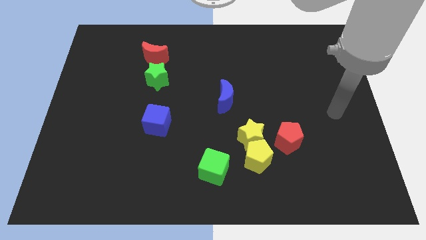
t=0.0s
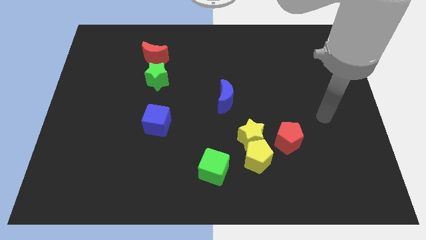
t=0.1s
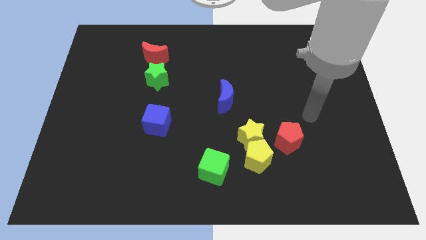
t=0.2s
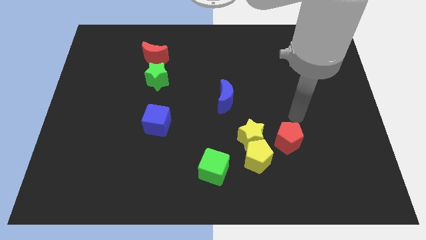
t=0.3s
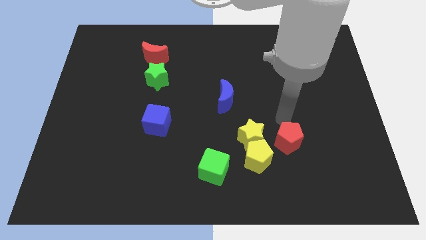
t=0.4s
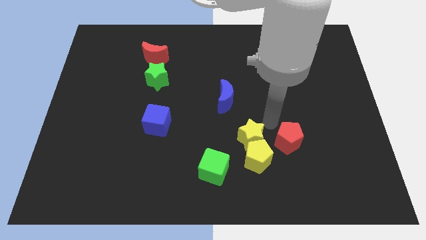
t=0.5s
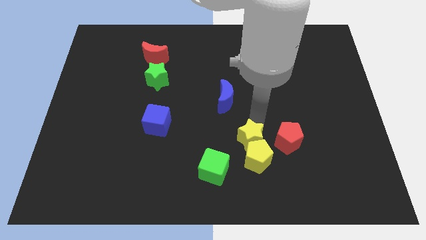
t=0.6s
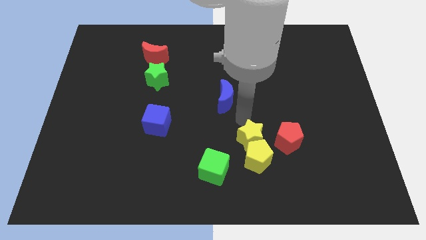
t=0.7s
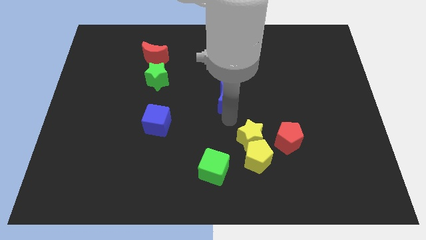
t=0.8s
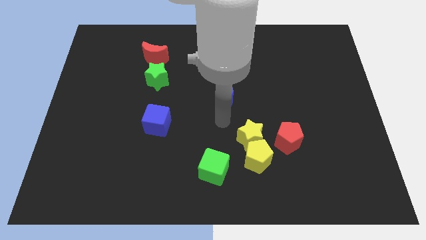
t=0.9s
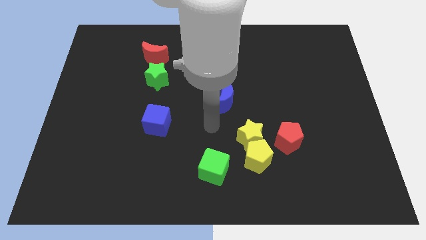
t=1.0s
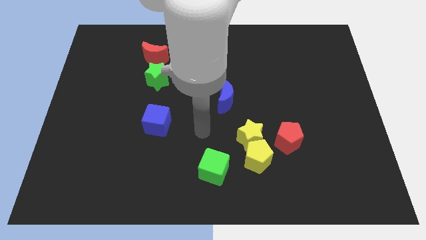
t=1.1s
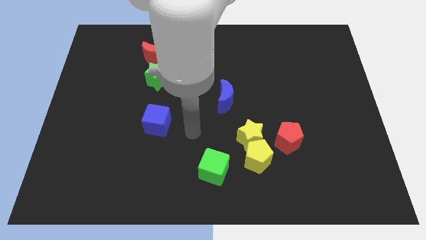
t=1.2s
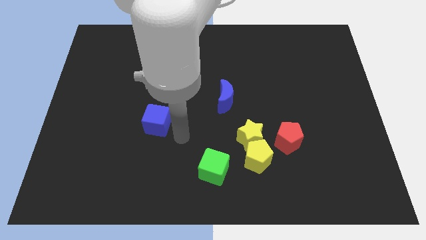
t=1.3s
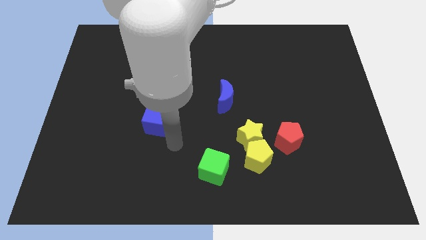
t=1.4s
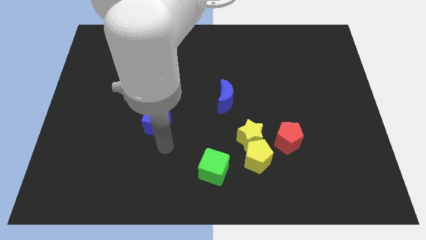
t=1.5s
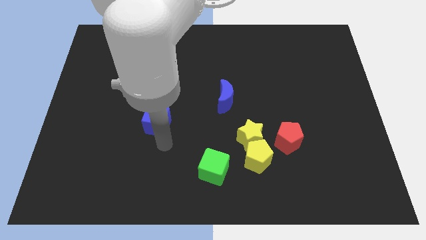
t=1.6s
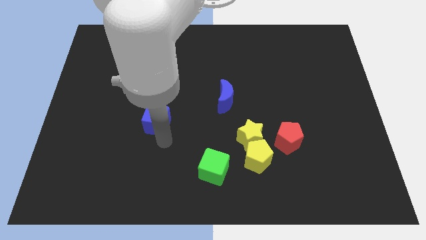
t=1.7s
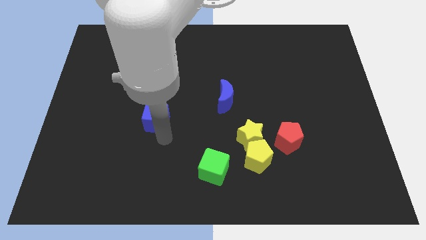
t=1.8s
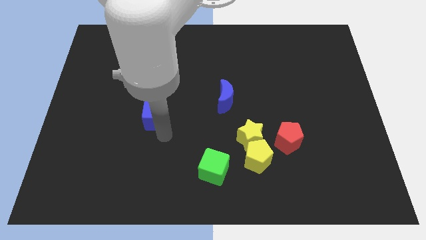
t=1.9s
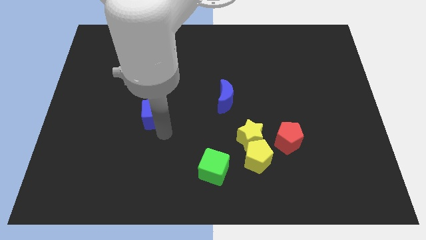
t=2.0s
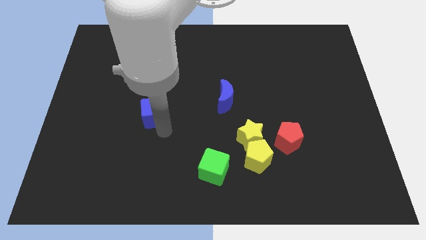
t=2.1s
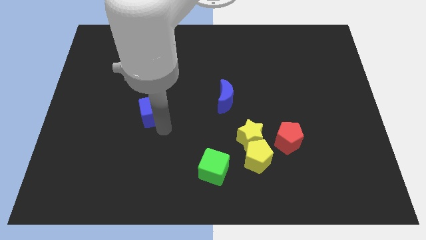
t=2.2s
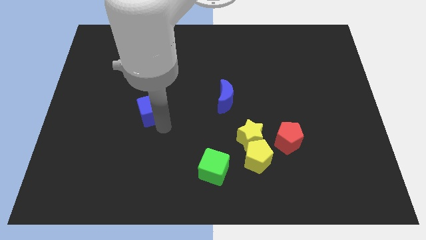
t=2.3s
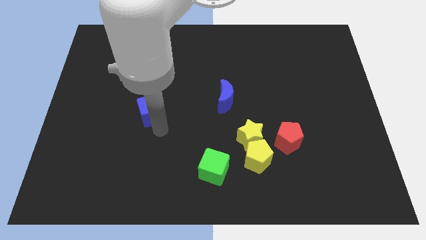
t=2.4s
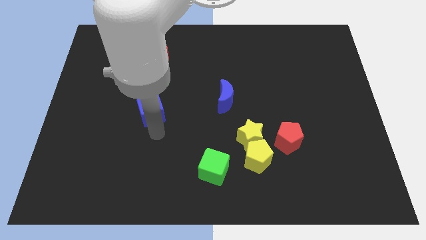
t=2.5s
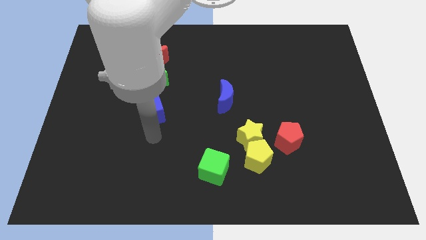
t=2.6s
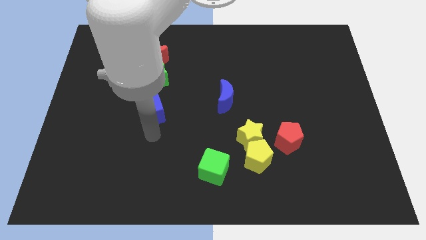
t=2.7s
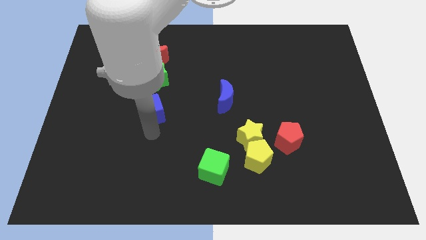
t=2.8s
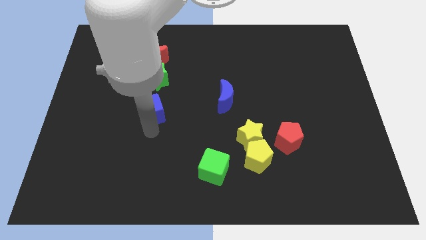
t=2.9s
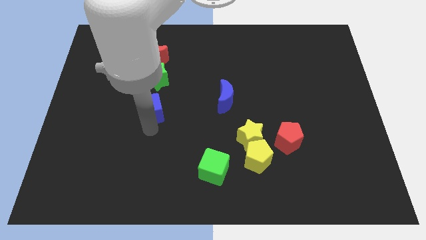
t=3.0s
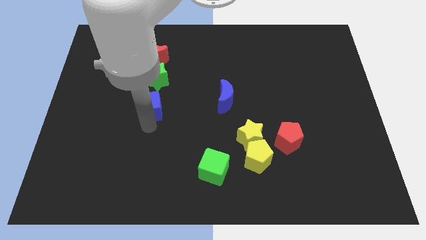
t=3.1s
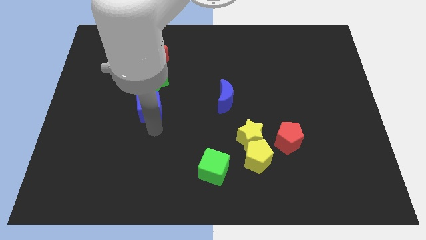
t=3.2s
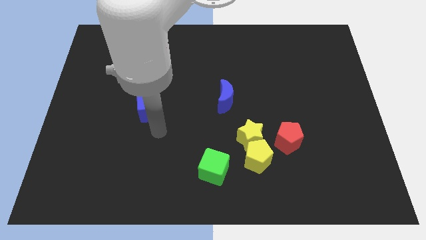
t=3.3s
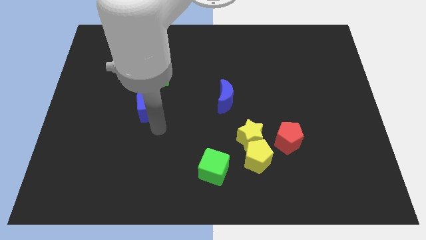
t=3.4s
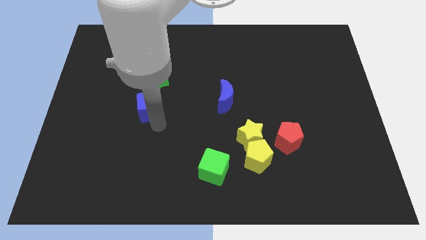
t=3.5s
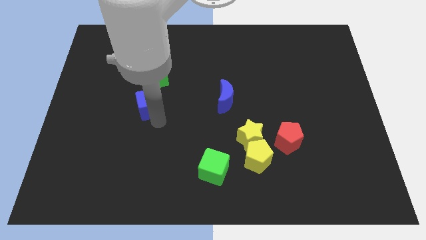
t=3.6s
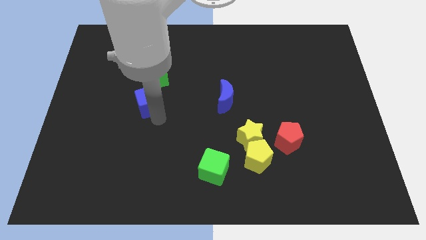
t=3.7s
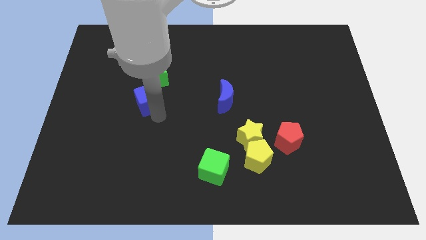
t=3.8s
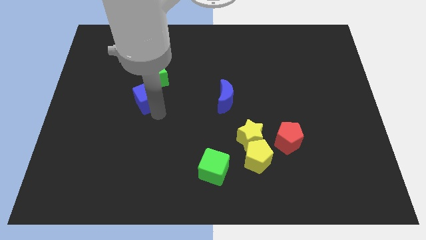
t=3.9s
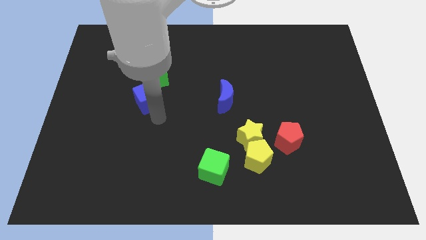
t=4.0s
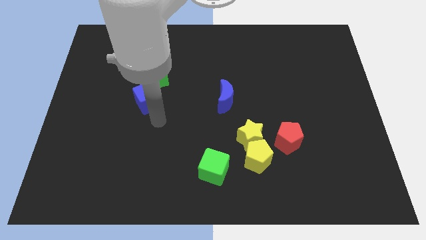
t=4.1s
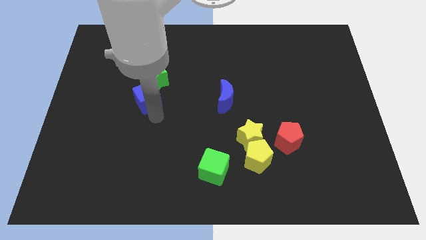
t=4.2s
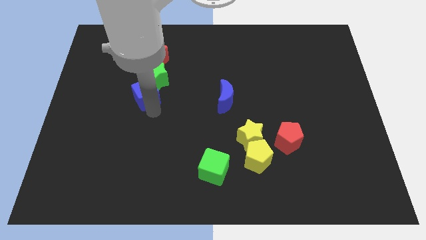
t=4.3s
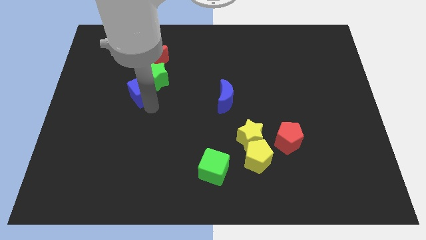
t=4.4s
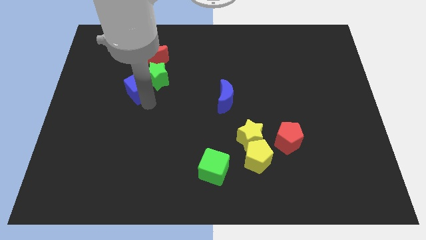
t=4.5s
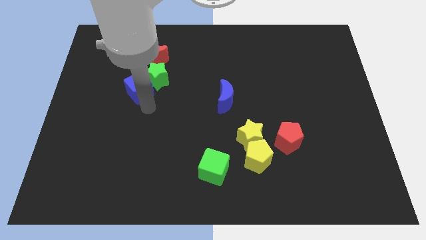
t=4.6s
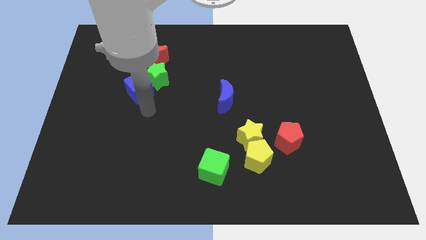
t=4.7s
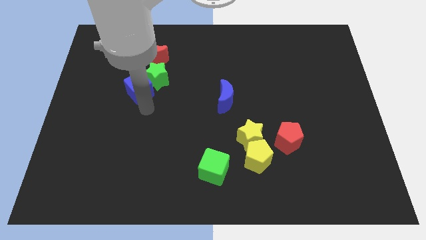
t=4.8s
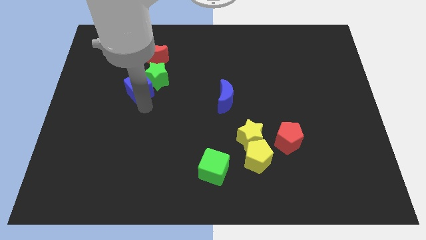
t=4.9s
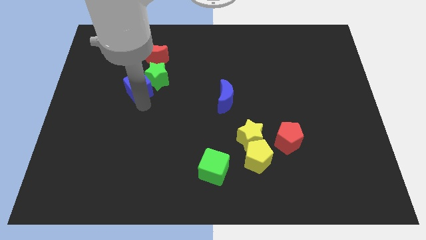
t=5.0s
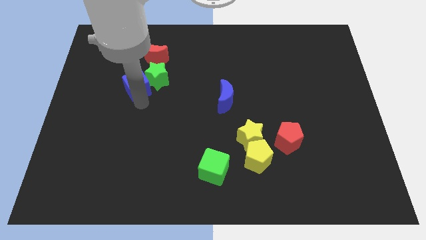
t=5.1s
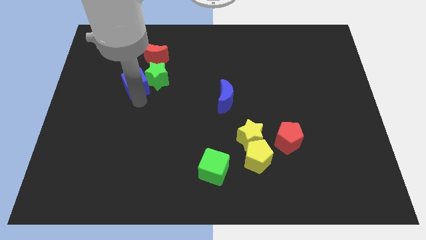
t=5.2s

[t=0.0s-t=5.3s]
move the blue cube to the bottom left of the red moon

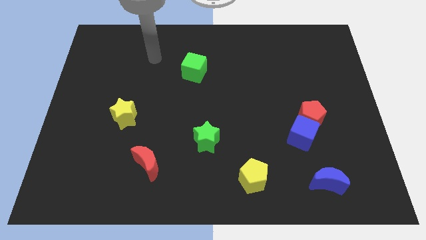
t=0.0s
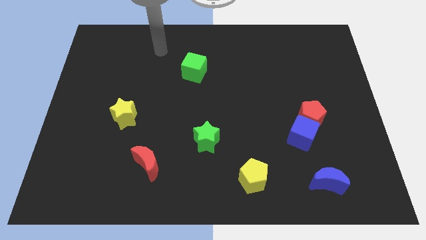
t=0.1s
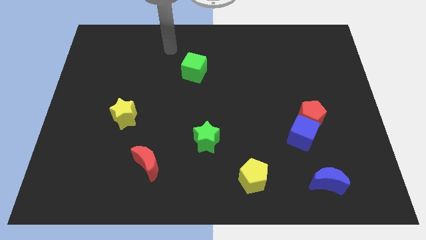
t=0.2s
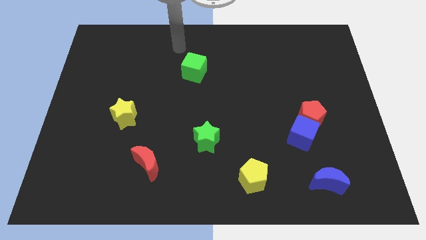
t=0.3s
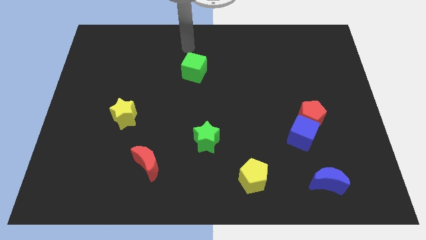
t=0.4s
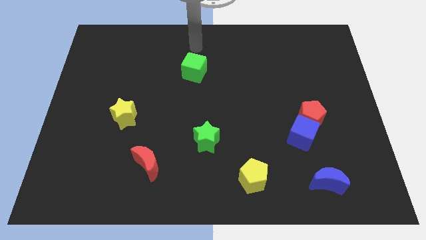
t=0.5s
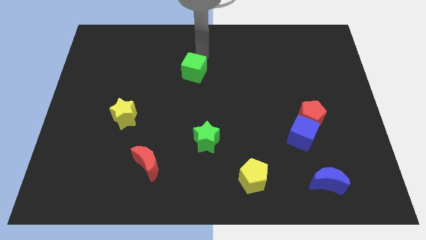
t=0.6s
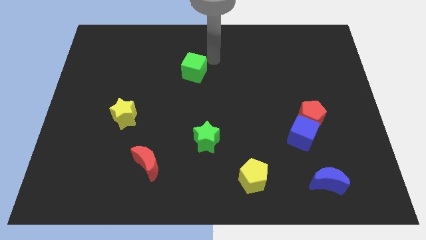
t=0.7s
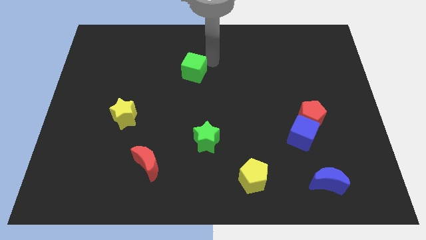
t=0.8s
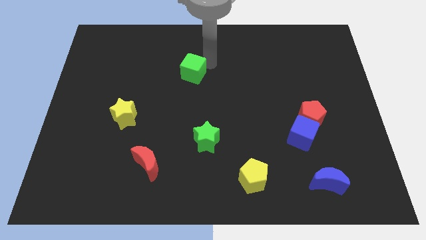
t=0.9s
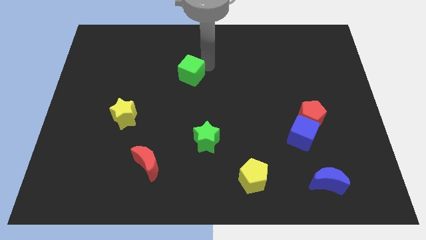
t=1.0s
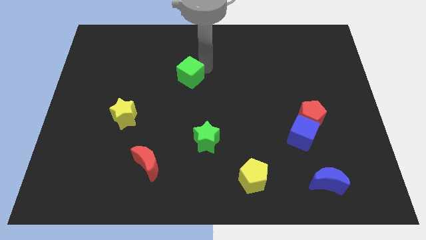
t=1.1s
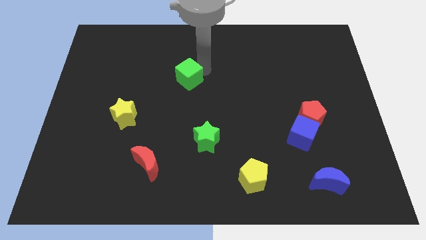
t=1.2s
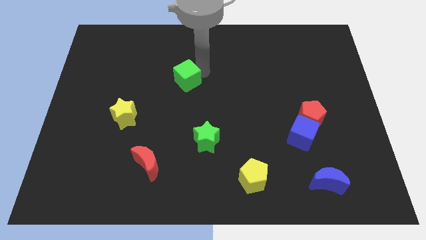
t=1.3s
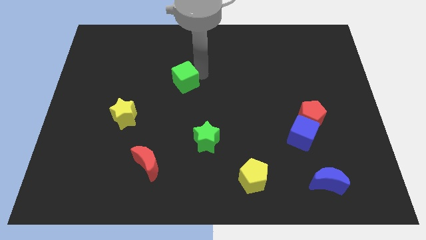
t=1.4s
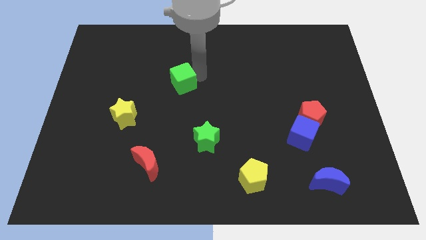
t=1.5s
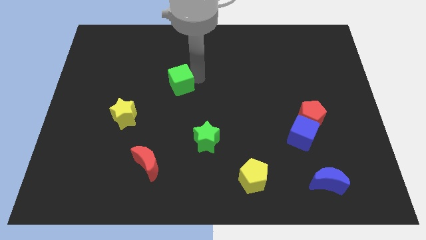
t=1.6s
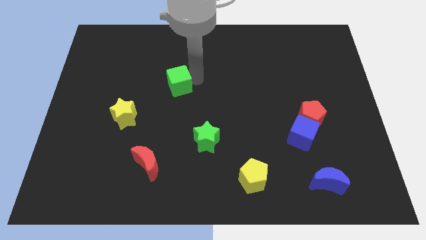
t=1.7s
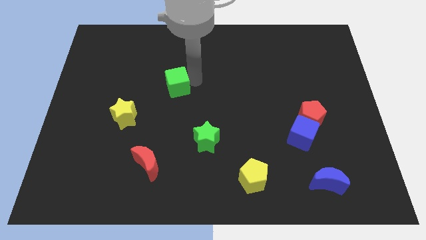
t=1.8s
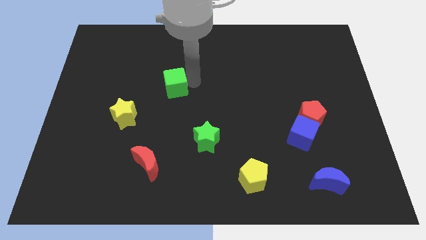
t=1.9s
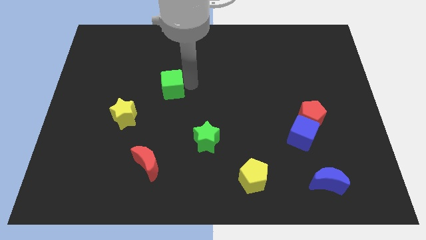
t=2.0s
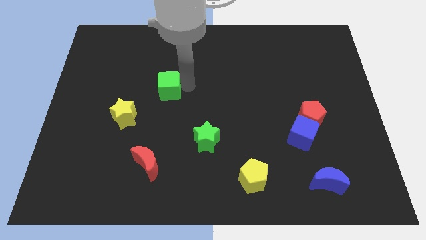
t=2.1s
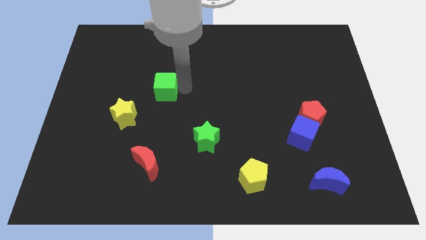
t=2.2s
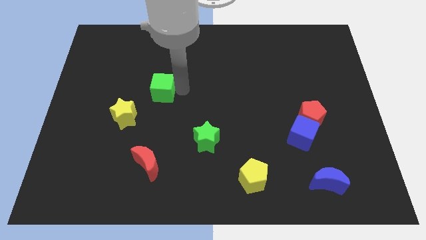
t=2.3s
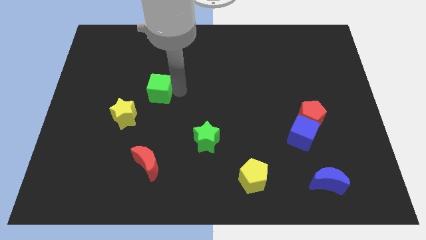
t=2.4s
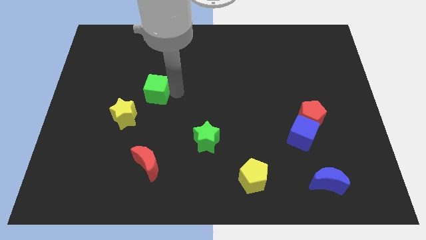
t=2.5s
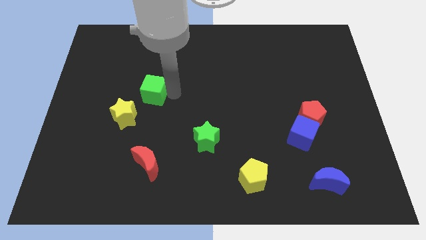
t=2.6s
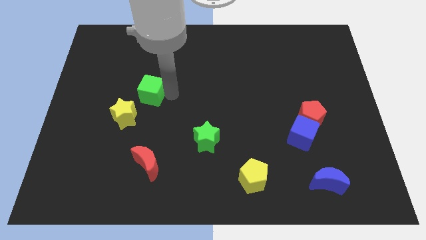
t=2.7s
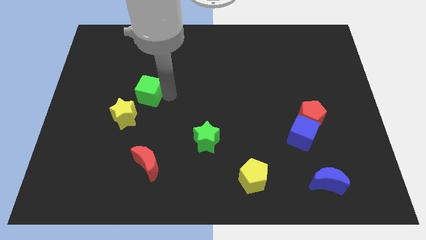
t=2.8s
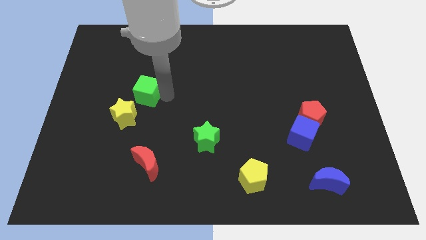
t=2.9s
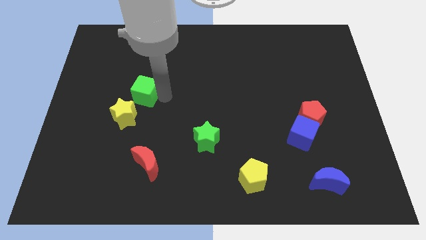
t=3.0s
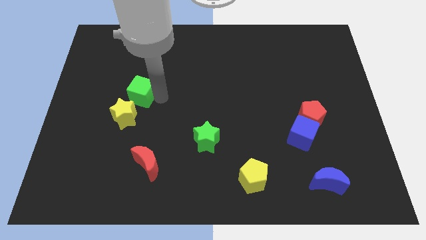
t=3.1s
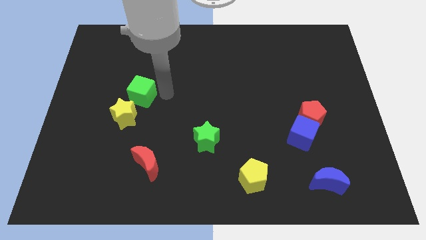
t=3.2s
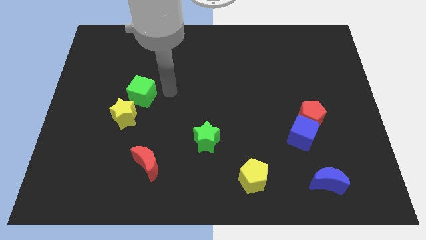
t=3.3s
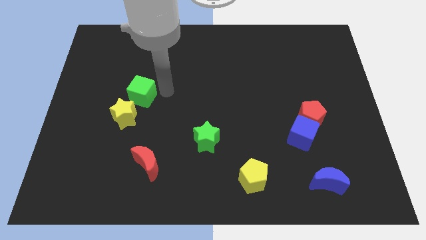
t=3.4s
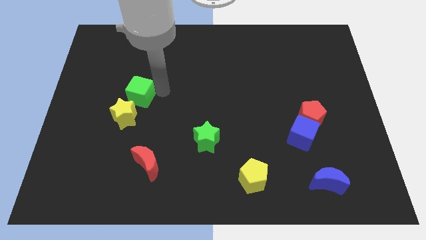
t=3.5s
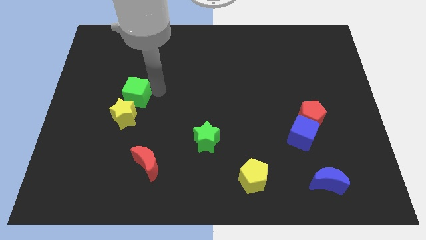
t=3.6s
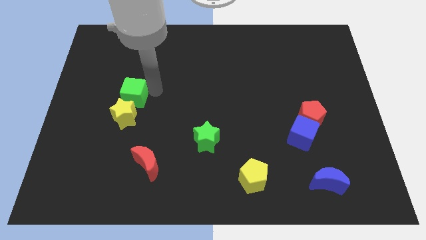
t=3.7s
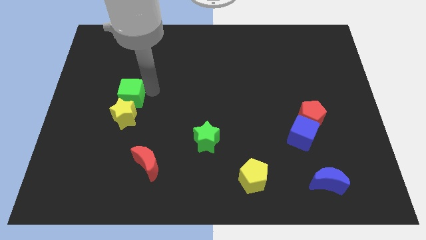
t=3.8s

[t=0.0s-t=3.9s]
push the green cube to the top left of the yellow star
